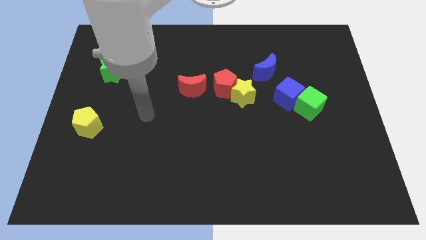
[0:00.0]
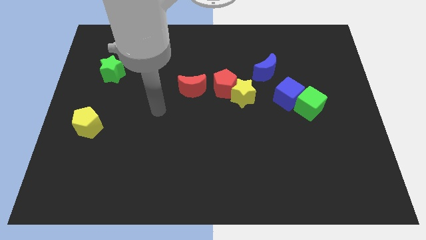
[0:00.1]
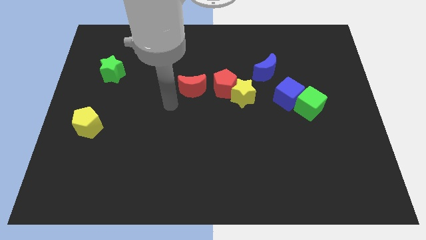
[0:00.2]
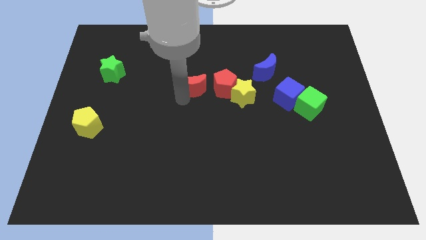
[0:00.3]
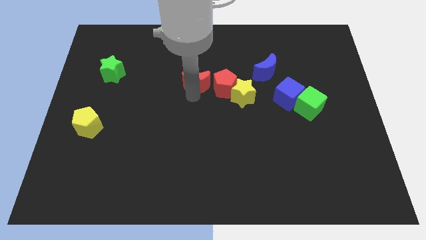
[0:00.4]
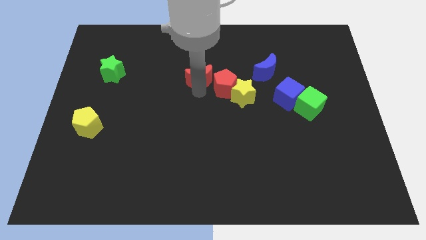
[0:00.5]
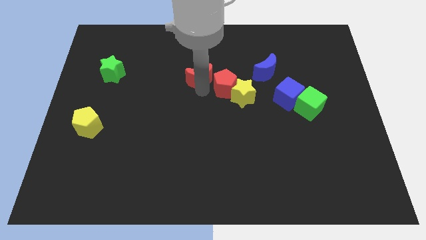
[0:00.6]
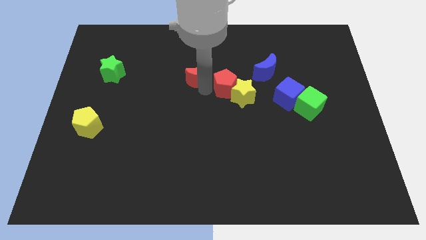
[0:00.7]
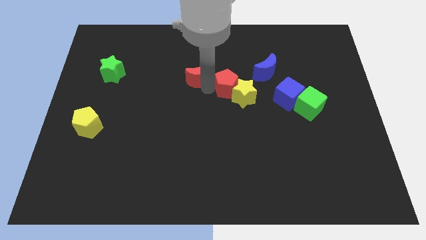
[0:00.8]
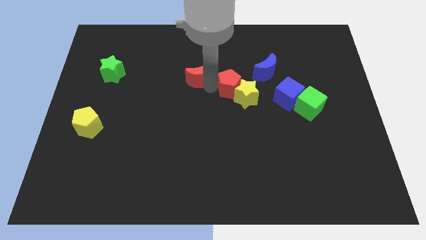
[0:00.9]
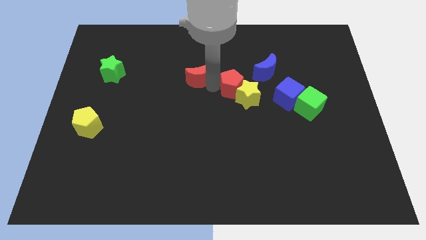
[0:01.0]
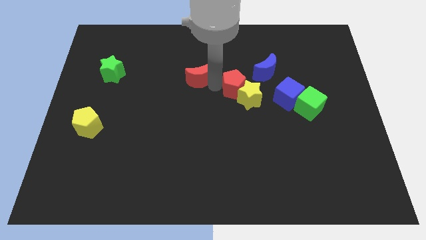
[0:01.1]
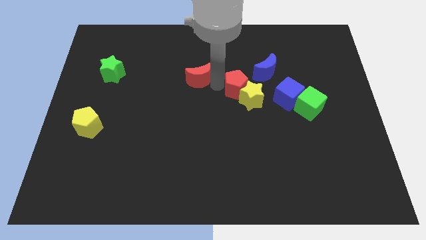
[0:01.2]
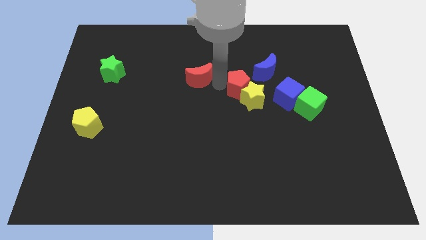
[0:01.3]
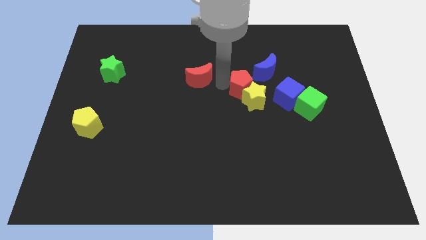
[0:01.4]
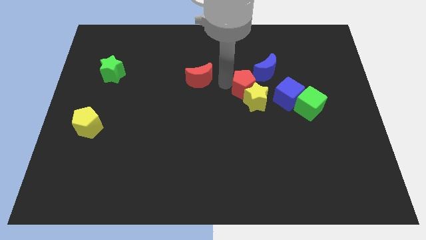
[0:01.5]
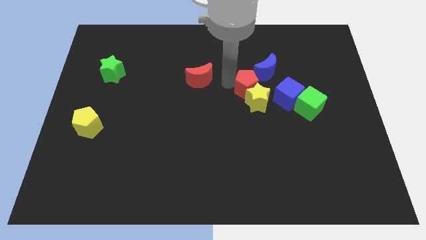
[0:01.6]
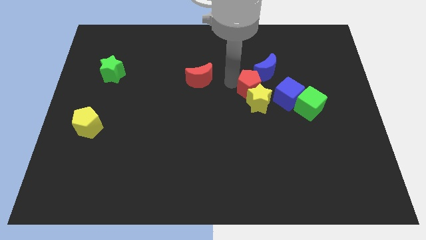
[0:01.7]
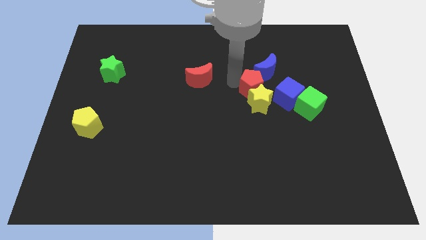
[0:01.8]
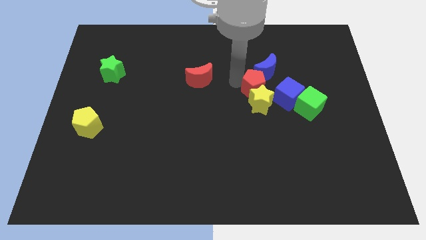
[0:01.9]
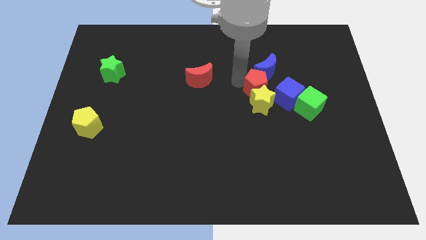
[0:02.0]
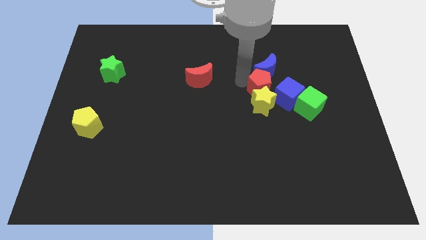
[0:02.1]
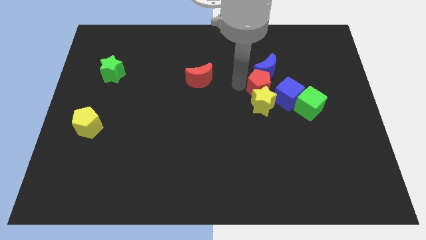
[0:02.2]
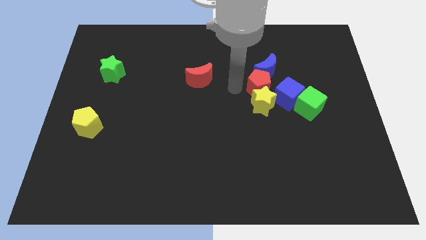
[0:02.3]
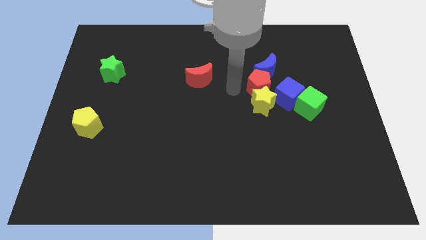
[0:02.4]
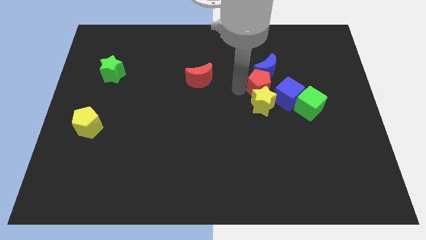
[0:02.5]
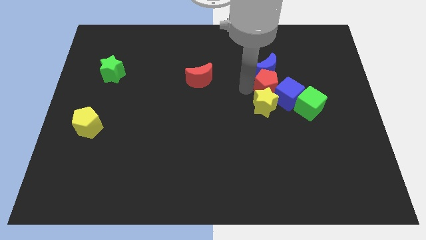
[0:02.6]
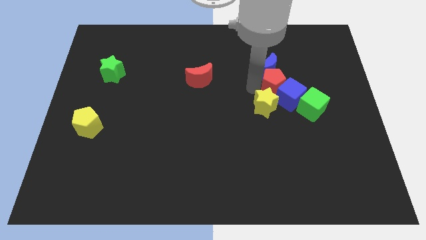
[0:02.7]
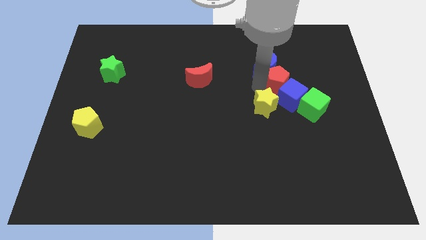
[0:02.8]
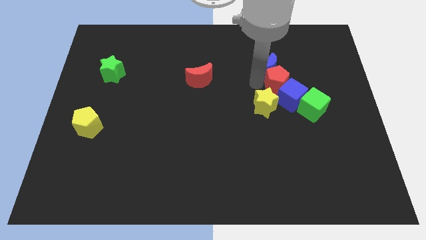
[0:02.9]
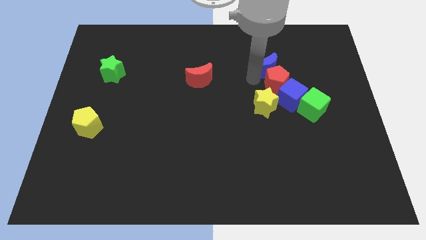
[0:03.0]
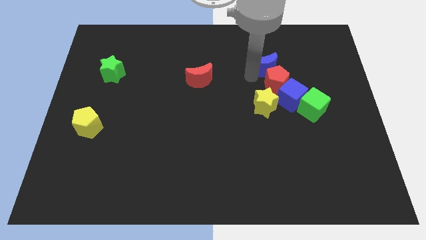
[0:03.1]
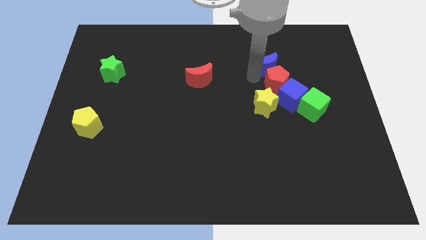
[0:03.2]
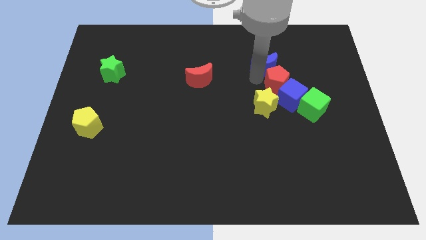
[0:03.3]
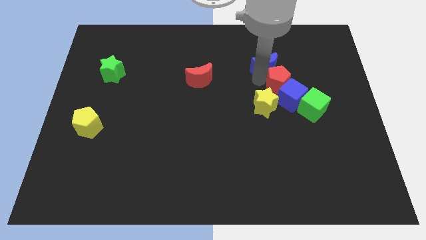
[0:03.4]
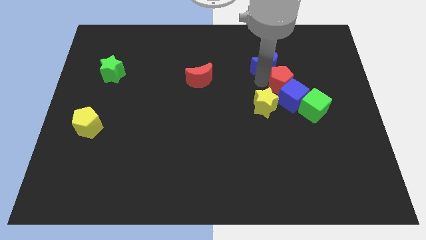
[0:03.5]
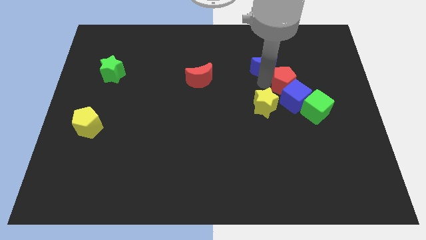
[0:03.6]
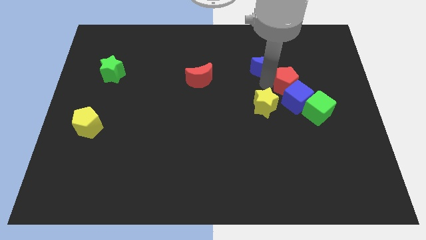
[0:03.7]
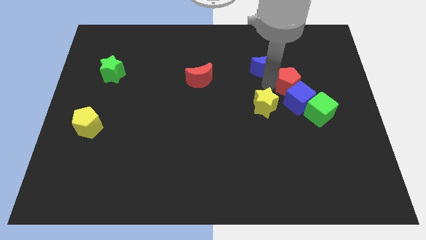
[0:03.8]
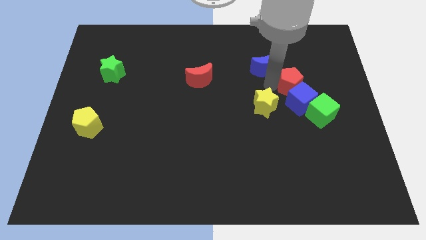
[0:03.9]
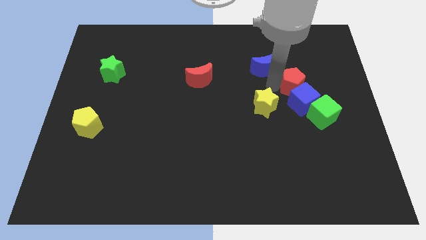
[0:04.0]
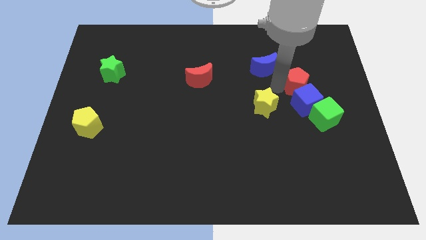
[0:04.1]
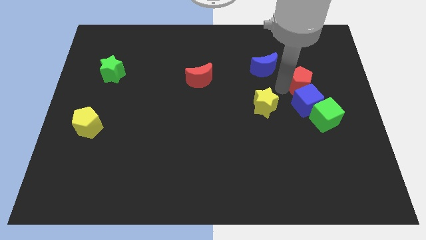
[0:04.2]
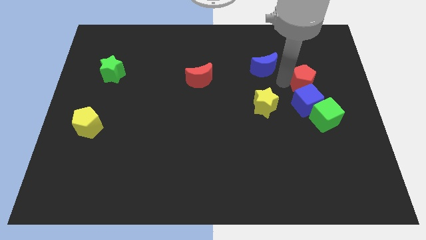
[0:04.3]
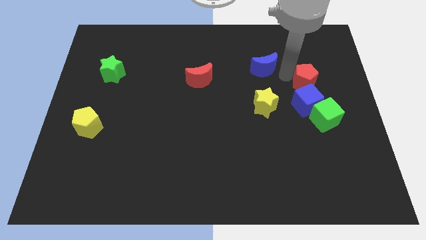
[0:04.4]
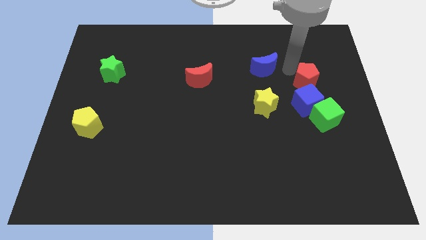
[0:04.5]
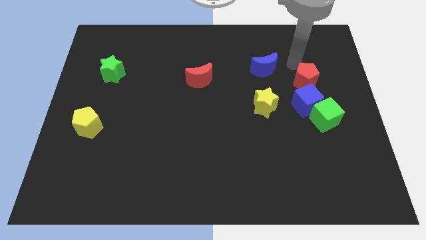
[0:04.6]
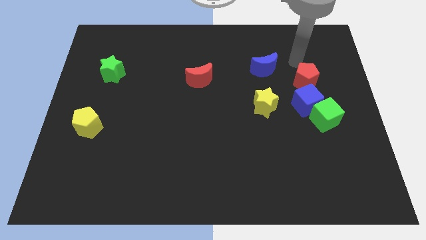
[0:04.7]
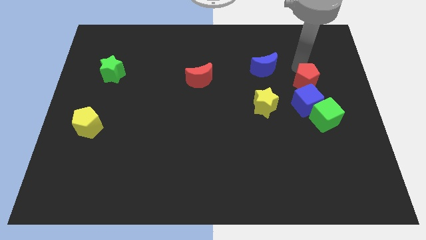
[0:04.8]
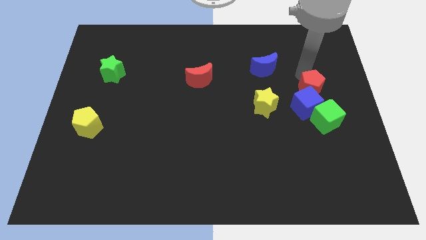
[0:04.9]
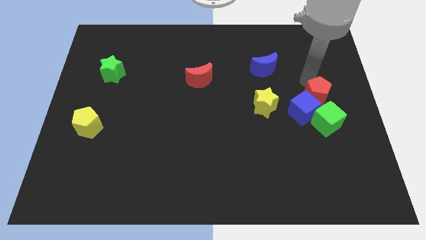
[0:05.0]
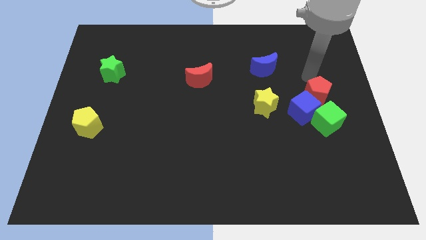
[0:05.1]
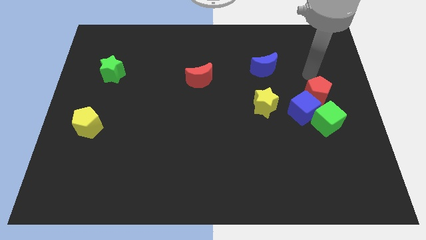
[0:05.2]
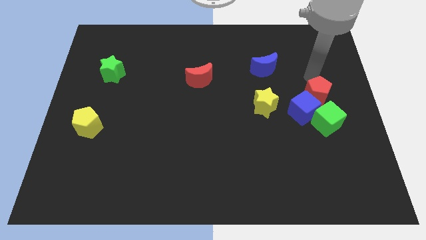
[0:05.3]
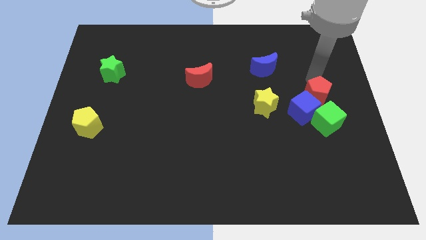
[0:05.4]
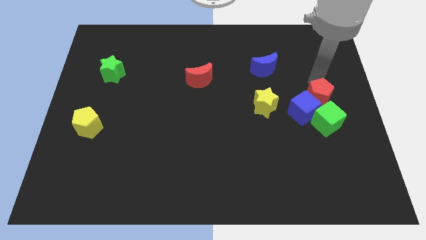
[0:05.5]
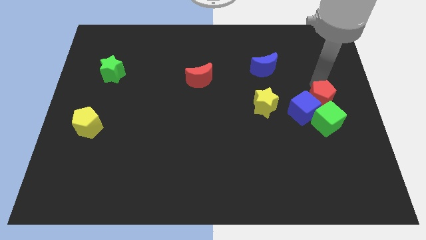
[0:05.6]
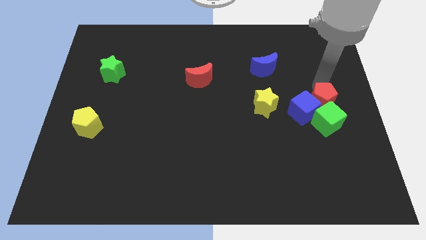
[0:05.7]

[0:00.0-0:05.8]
push the red pentagon towards the green cube

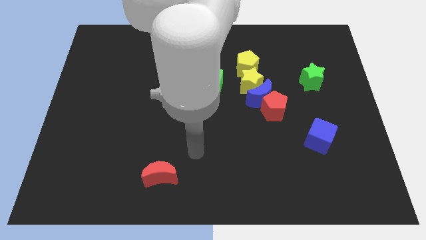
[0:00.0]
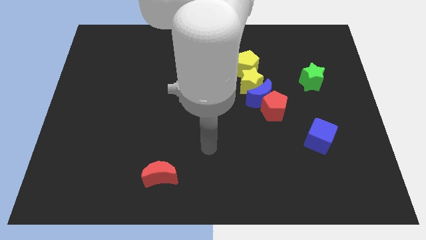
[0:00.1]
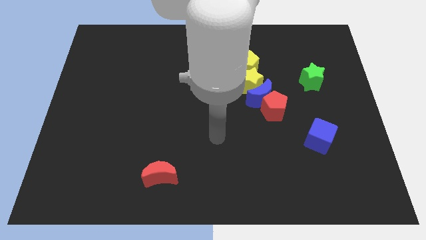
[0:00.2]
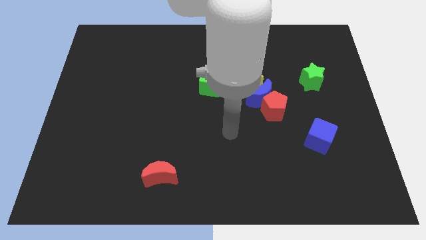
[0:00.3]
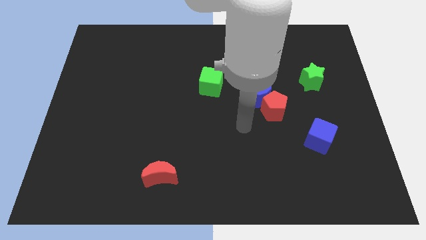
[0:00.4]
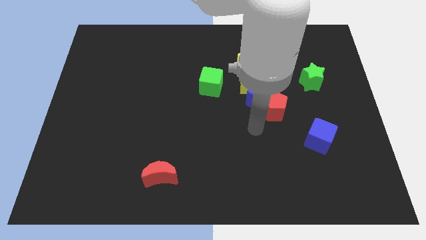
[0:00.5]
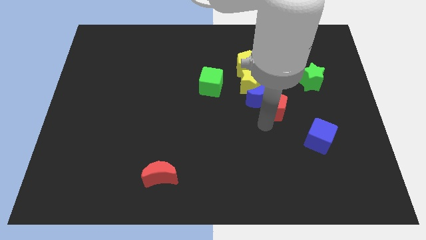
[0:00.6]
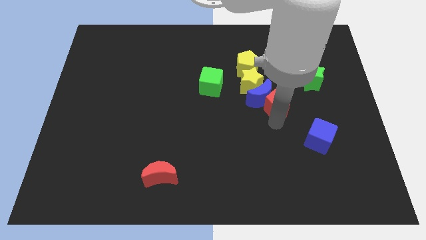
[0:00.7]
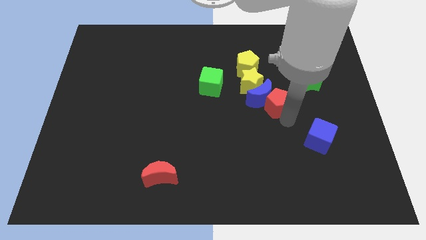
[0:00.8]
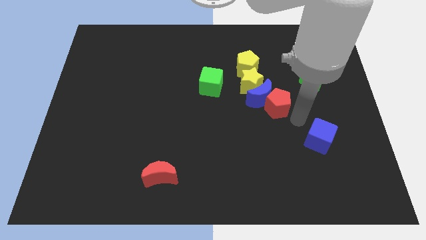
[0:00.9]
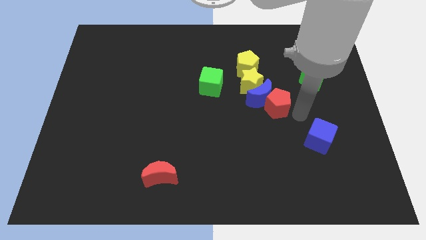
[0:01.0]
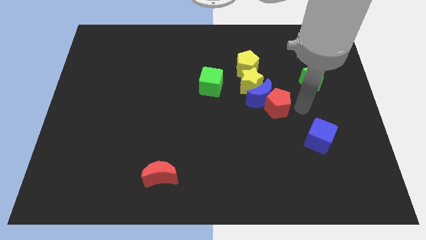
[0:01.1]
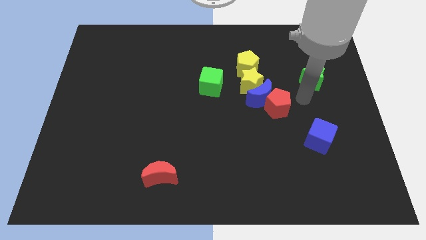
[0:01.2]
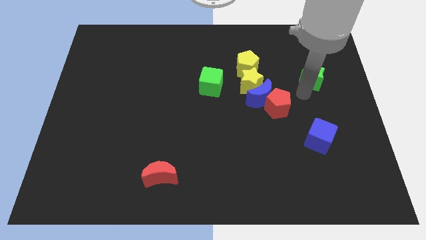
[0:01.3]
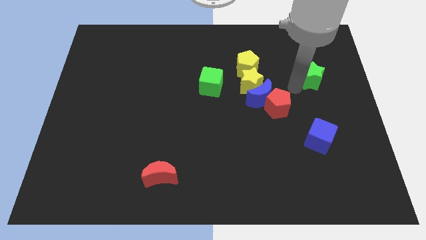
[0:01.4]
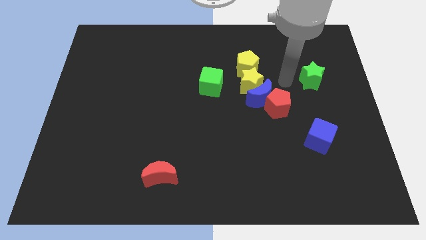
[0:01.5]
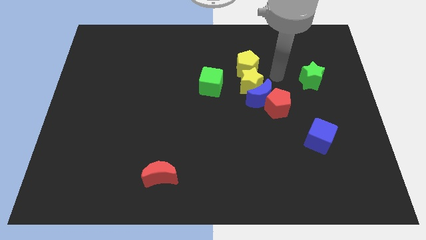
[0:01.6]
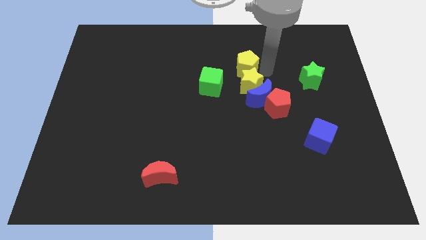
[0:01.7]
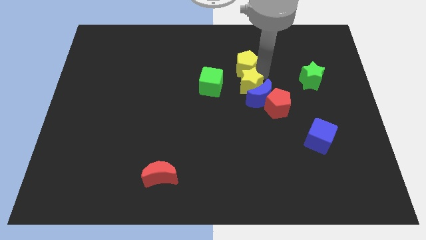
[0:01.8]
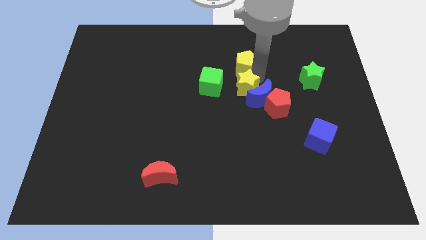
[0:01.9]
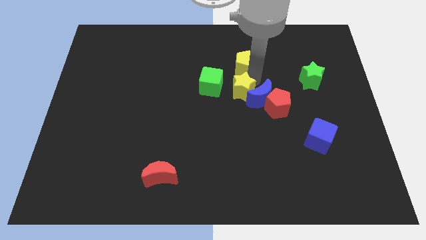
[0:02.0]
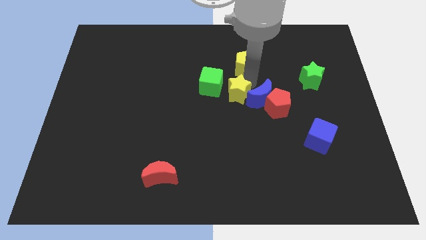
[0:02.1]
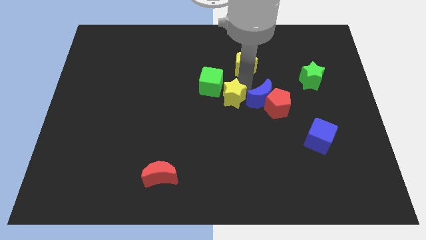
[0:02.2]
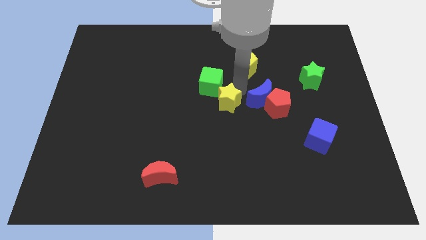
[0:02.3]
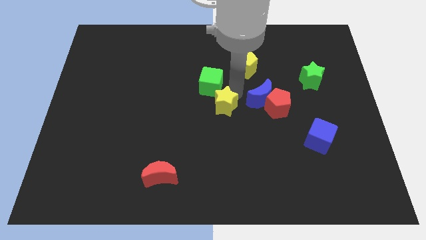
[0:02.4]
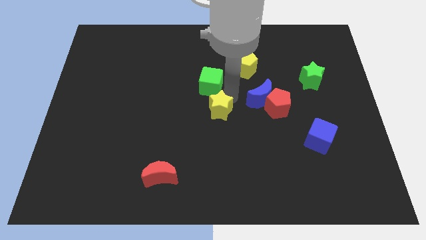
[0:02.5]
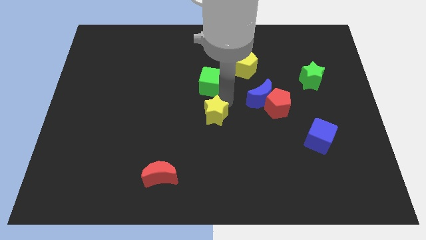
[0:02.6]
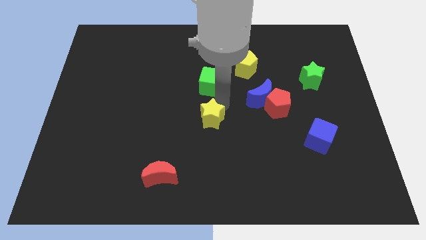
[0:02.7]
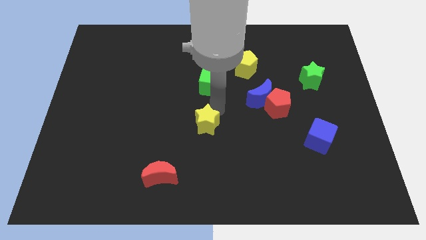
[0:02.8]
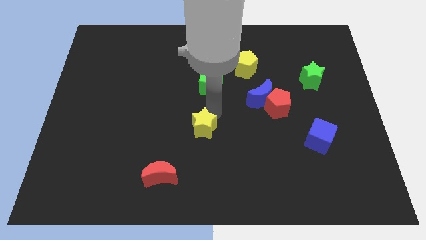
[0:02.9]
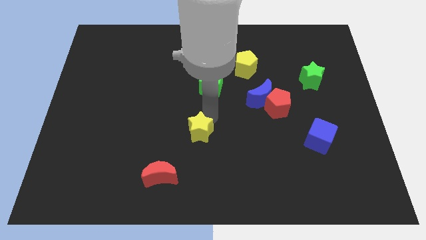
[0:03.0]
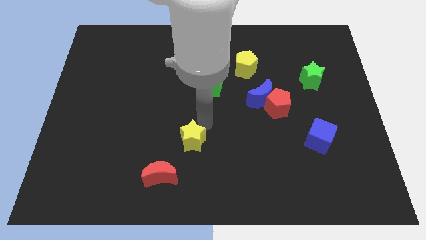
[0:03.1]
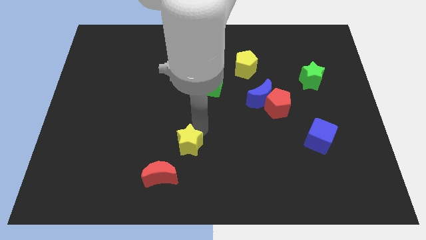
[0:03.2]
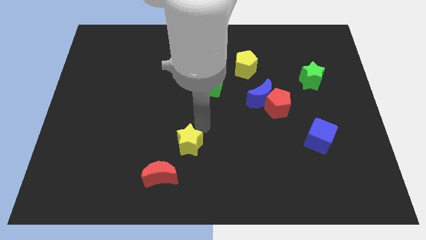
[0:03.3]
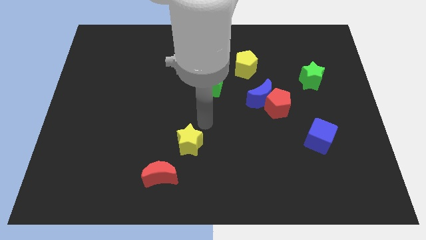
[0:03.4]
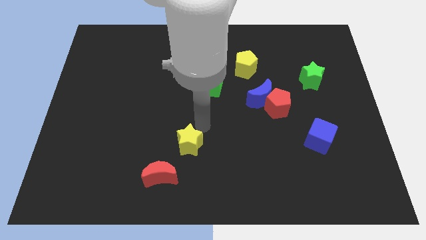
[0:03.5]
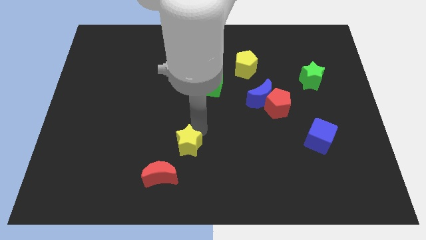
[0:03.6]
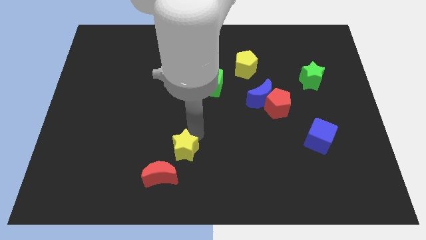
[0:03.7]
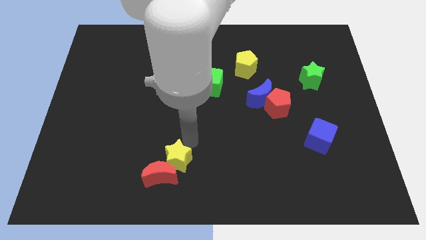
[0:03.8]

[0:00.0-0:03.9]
slide the yellow star towards the red moon
